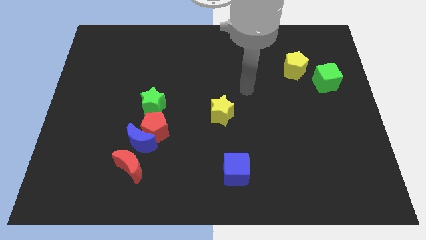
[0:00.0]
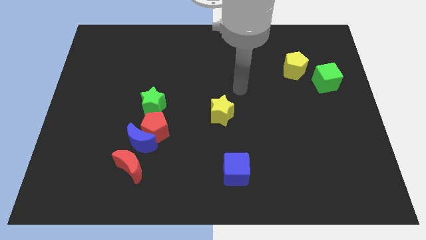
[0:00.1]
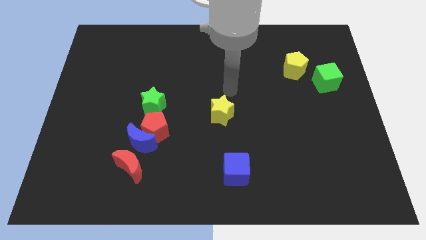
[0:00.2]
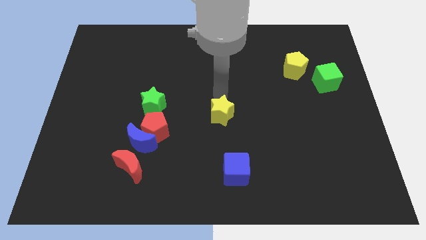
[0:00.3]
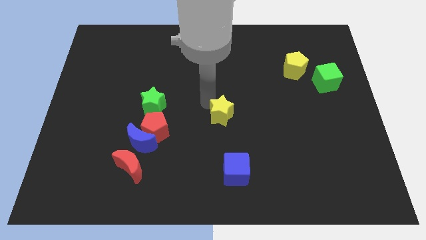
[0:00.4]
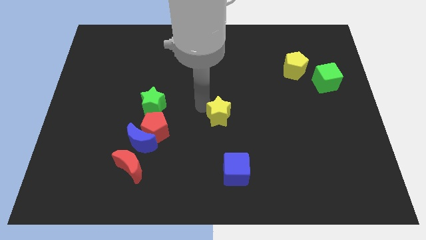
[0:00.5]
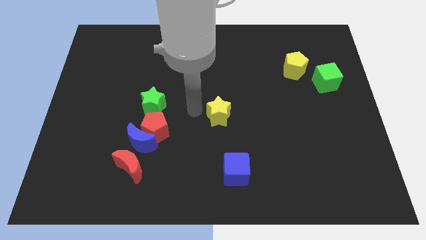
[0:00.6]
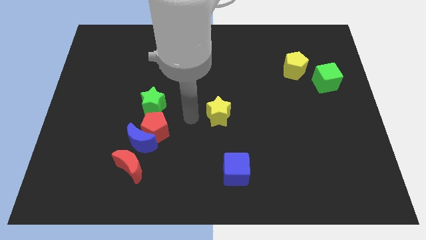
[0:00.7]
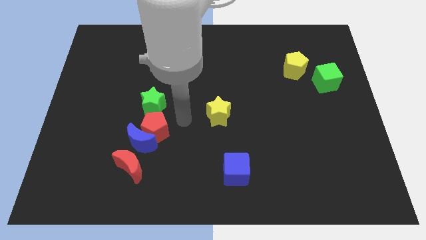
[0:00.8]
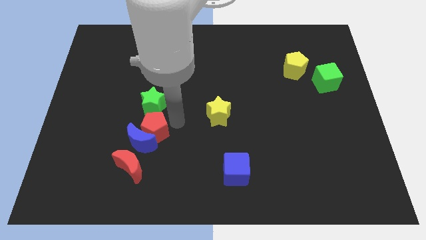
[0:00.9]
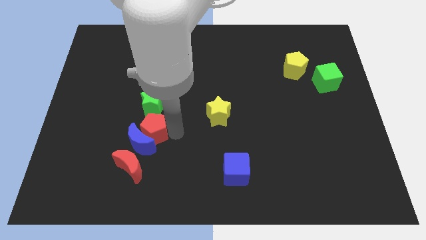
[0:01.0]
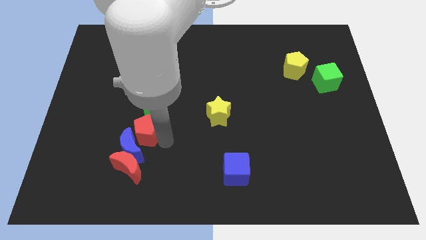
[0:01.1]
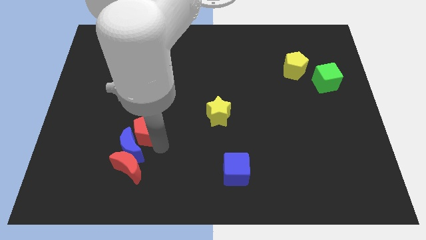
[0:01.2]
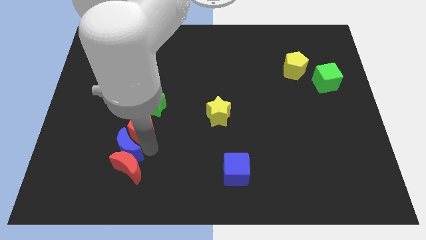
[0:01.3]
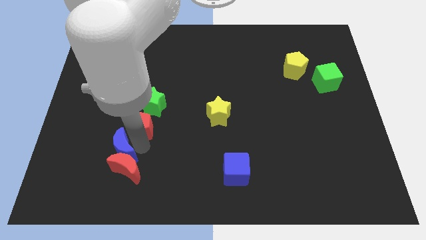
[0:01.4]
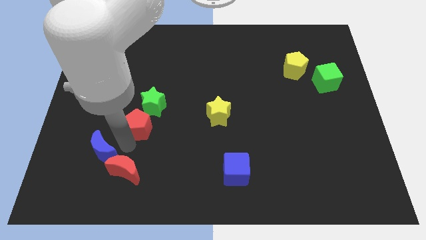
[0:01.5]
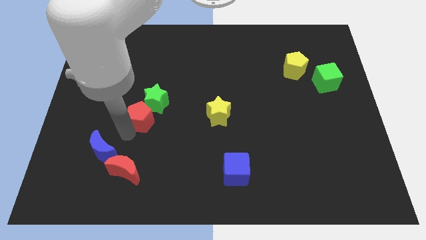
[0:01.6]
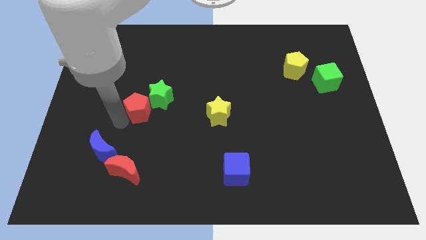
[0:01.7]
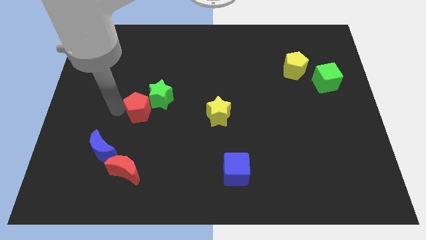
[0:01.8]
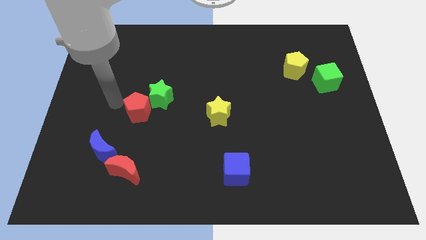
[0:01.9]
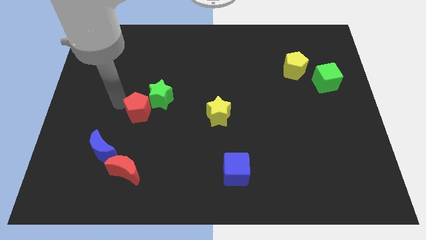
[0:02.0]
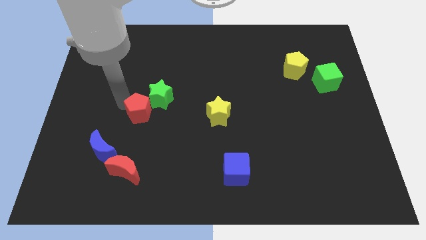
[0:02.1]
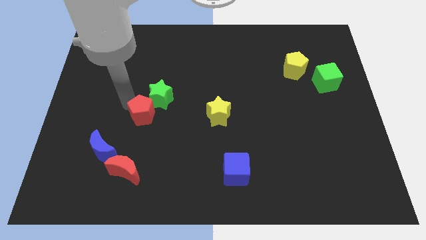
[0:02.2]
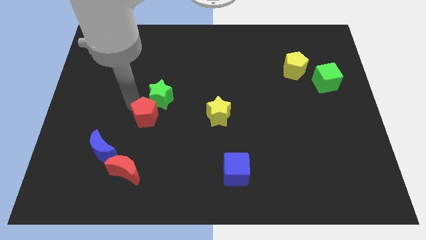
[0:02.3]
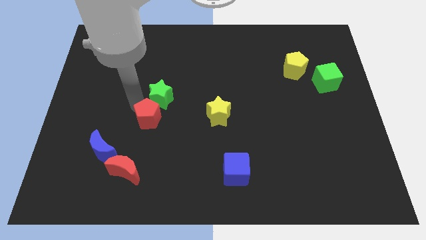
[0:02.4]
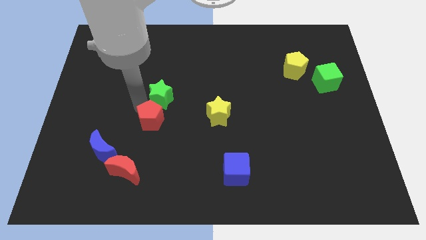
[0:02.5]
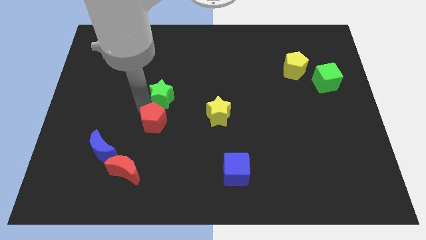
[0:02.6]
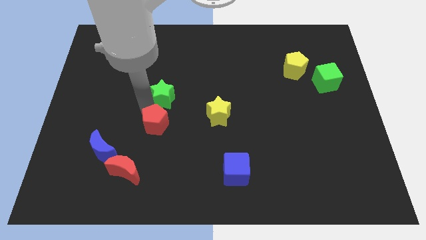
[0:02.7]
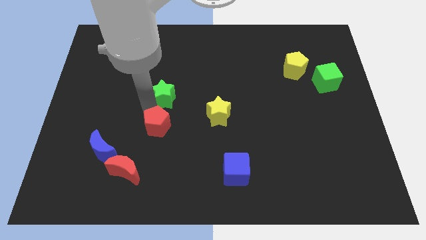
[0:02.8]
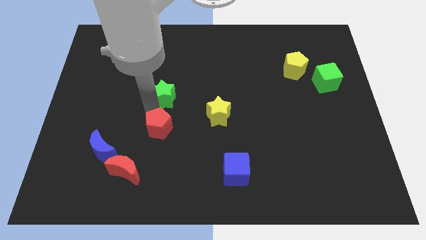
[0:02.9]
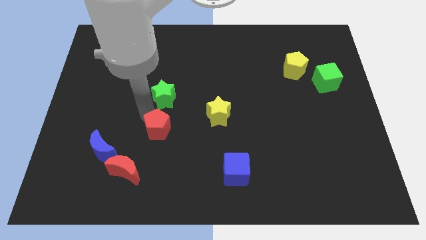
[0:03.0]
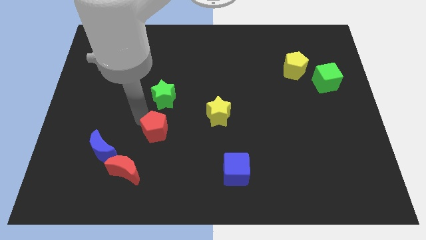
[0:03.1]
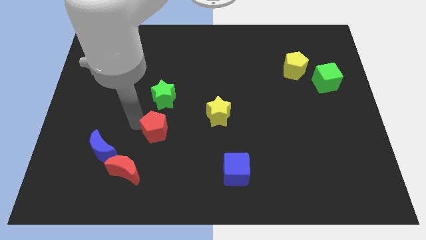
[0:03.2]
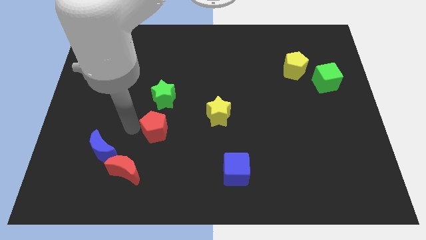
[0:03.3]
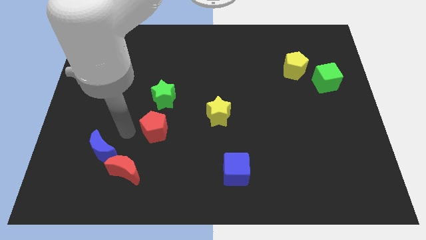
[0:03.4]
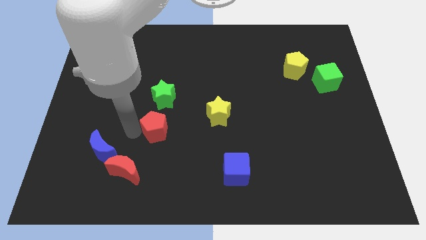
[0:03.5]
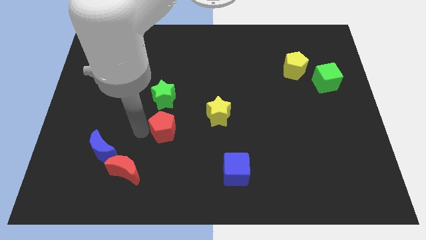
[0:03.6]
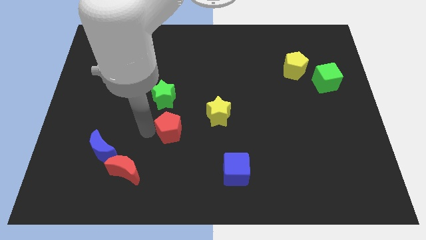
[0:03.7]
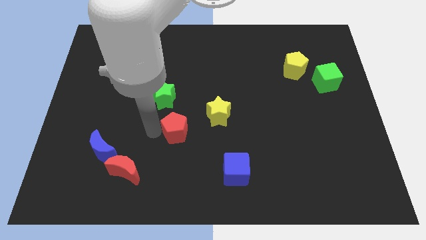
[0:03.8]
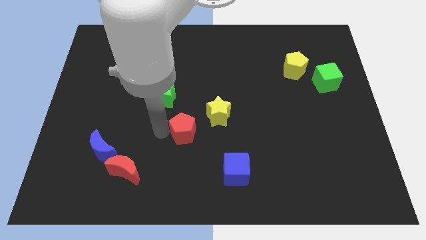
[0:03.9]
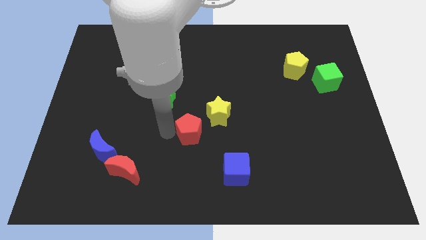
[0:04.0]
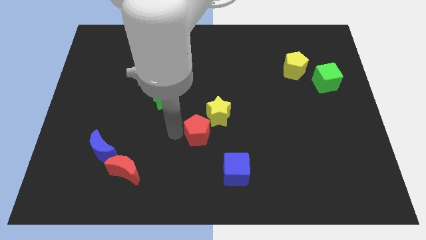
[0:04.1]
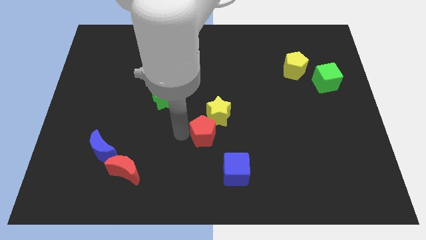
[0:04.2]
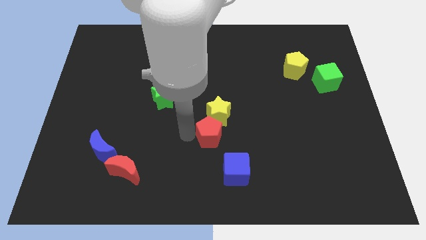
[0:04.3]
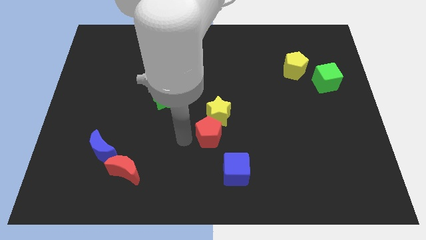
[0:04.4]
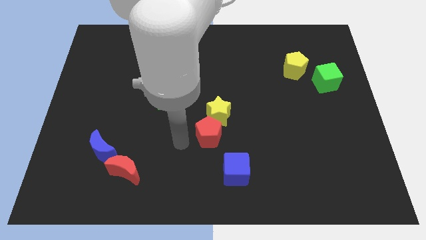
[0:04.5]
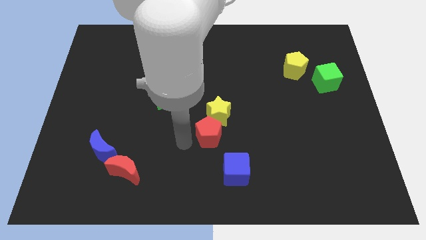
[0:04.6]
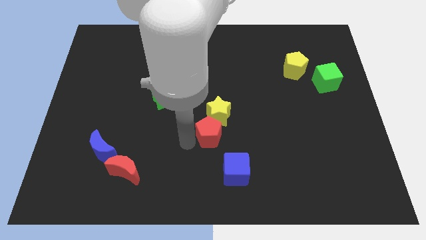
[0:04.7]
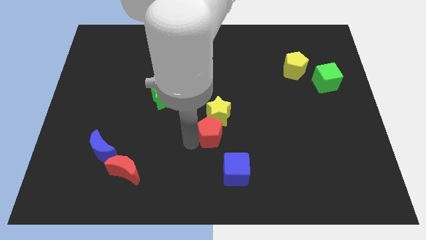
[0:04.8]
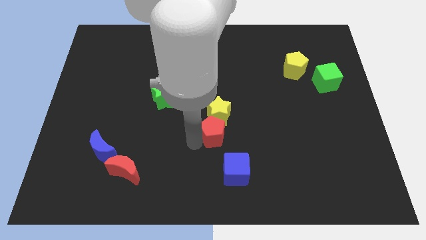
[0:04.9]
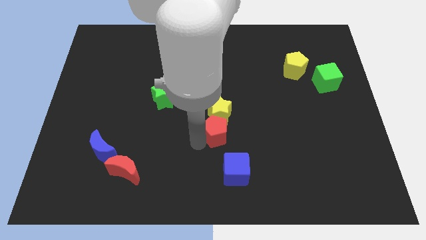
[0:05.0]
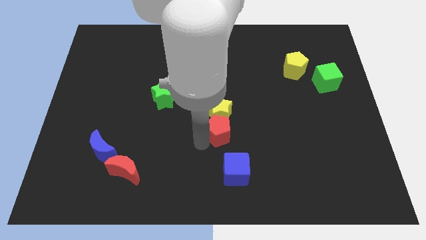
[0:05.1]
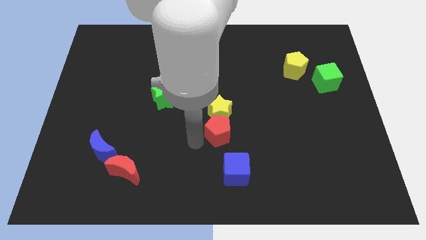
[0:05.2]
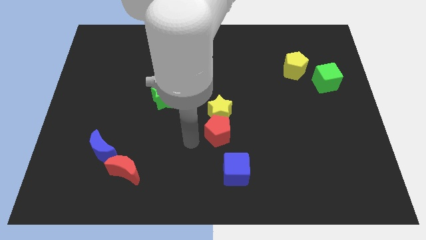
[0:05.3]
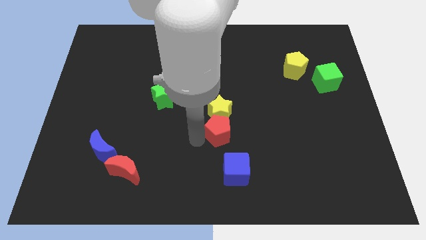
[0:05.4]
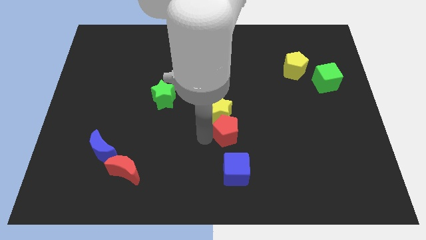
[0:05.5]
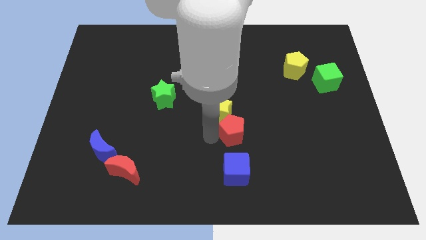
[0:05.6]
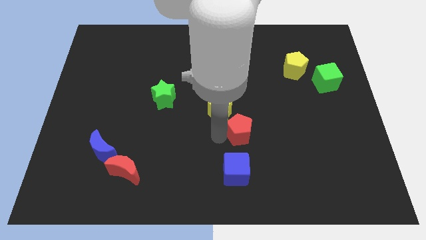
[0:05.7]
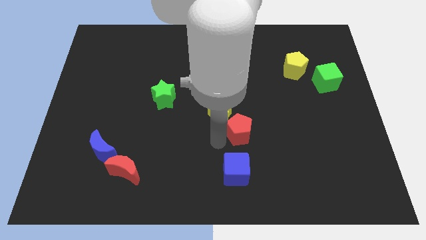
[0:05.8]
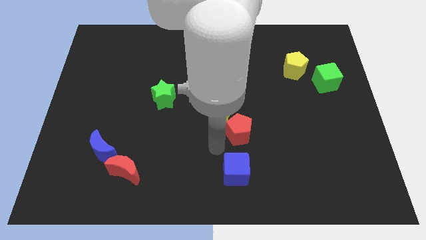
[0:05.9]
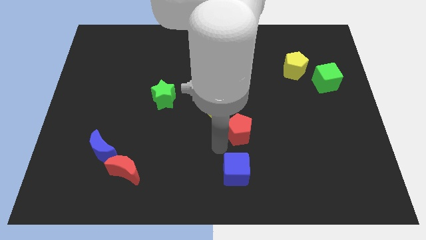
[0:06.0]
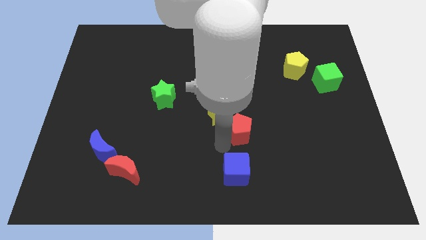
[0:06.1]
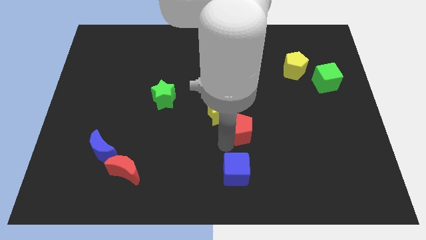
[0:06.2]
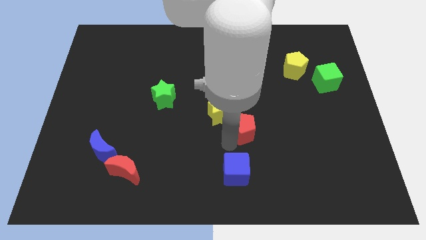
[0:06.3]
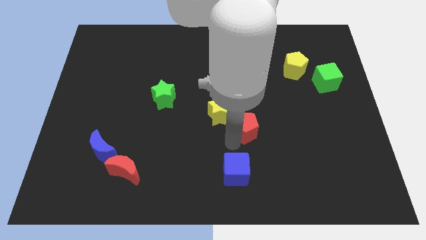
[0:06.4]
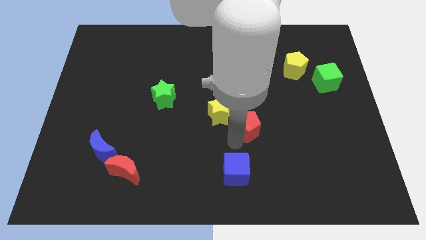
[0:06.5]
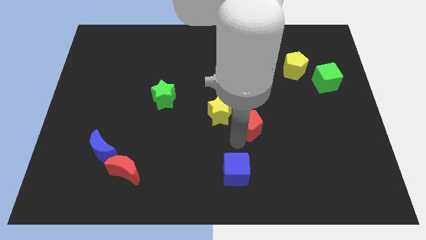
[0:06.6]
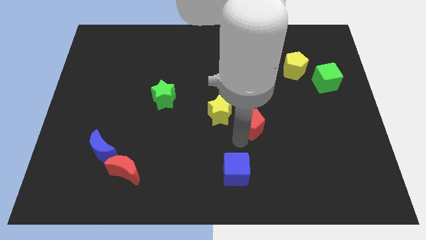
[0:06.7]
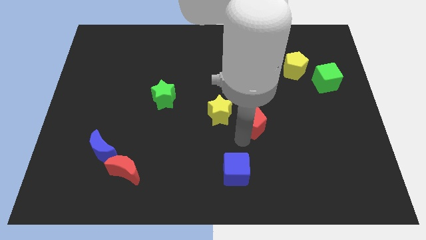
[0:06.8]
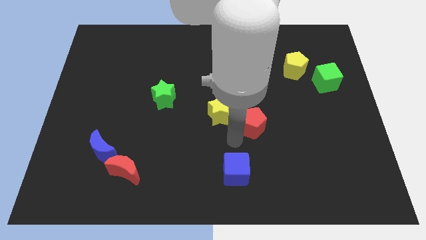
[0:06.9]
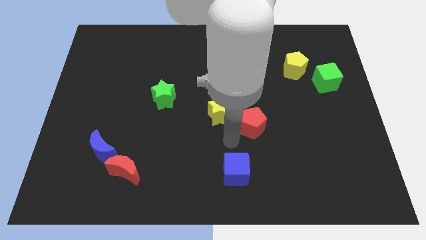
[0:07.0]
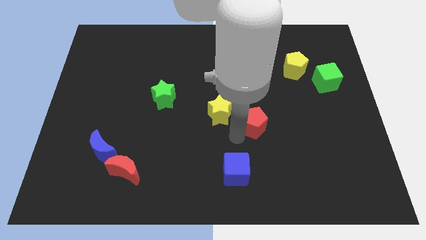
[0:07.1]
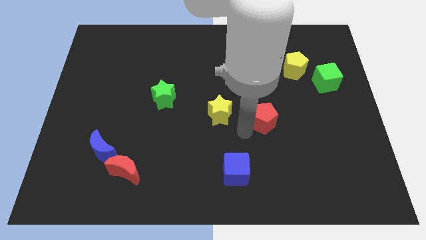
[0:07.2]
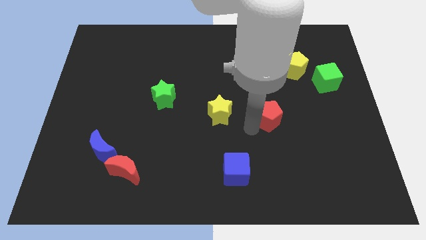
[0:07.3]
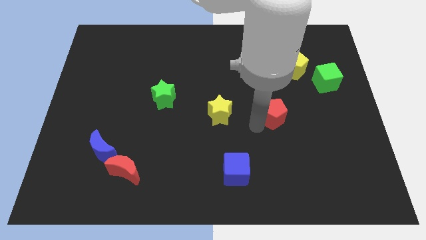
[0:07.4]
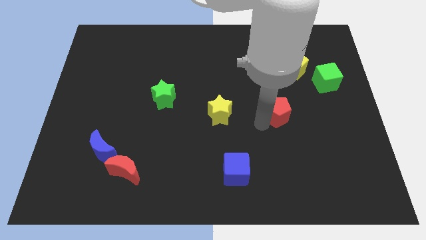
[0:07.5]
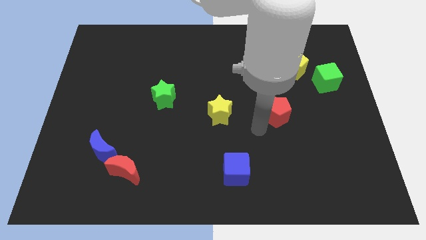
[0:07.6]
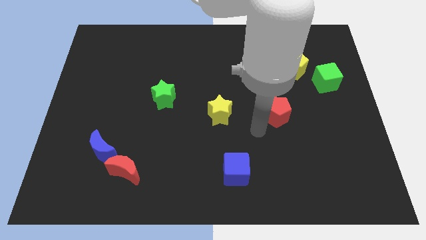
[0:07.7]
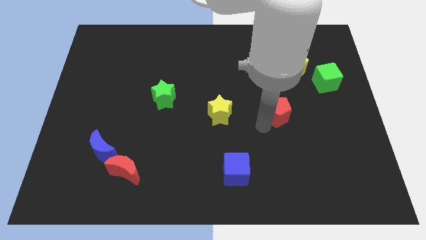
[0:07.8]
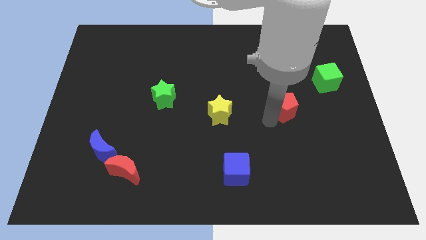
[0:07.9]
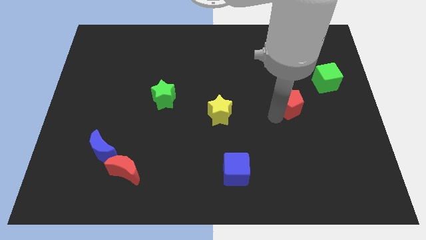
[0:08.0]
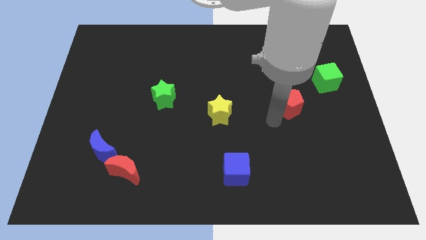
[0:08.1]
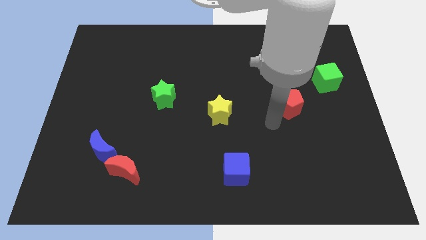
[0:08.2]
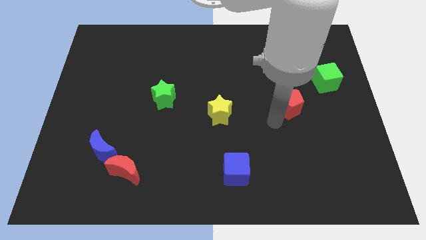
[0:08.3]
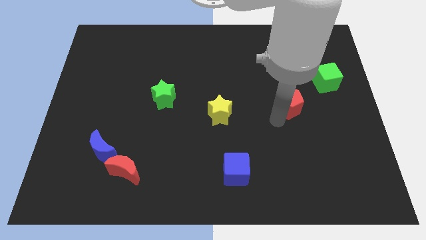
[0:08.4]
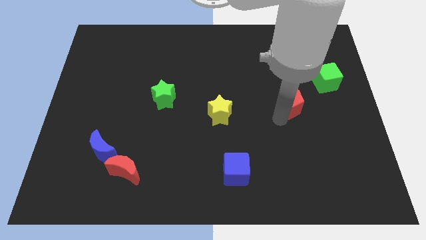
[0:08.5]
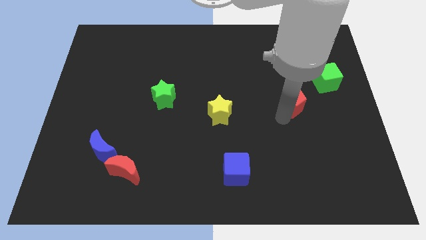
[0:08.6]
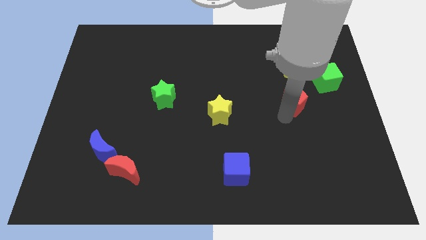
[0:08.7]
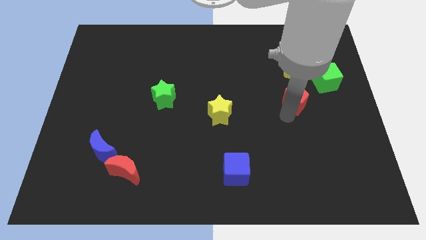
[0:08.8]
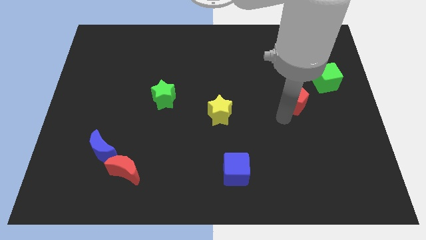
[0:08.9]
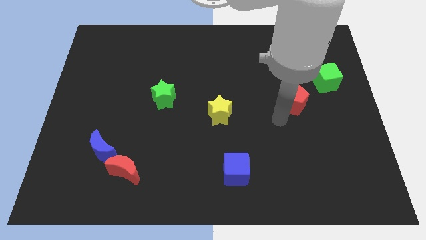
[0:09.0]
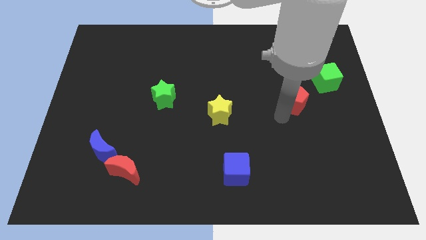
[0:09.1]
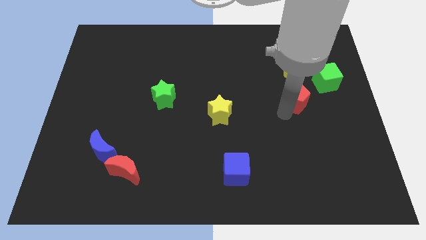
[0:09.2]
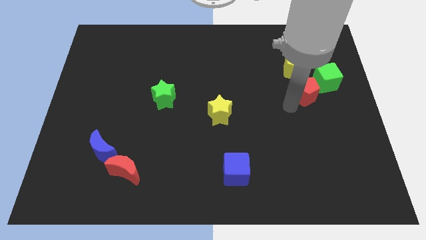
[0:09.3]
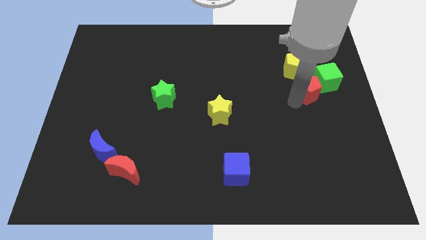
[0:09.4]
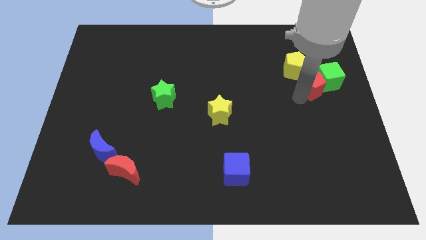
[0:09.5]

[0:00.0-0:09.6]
move the red pentagon next to the green cube
